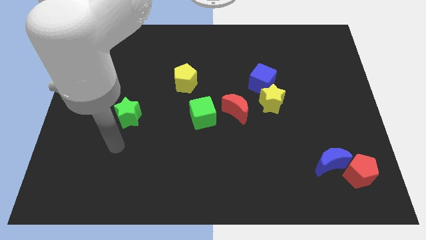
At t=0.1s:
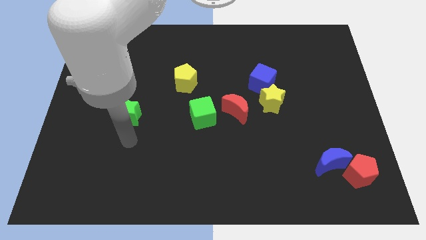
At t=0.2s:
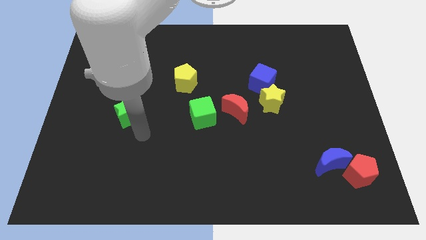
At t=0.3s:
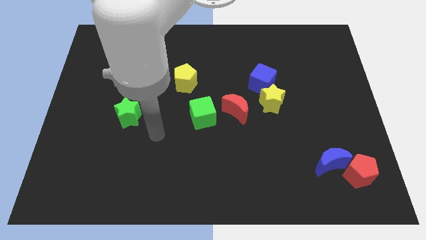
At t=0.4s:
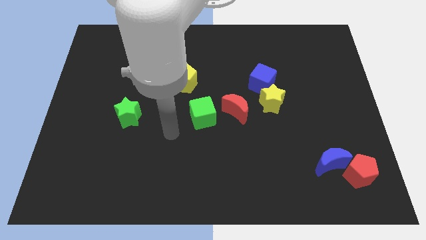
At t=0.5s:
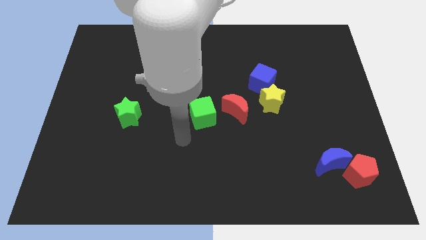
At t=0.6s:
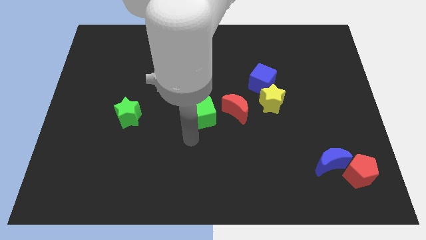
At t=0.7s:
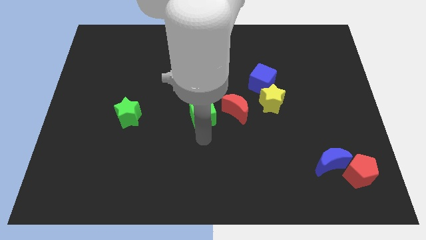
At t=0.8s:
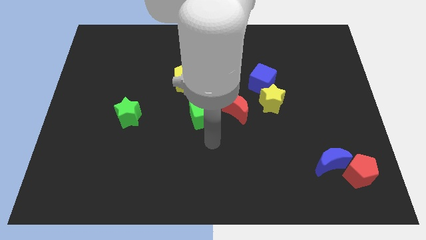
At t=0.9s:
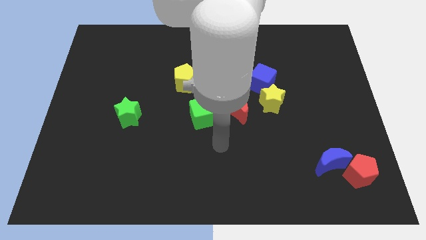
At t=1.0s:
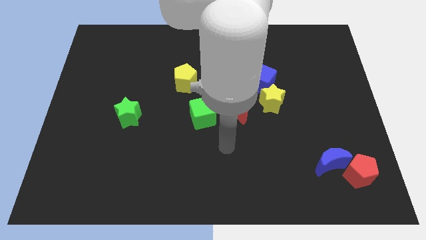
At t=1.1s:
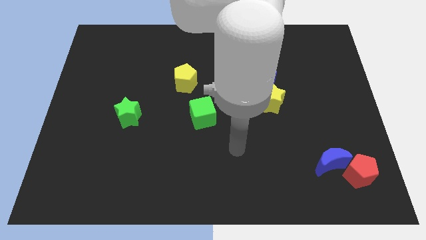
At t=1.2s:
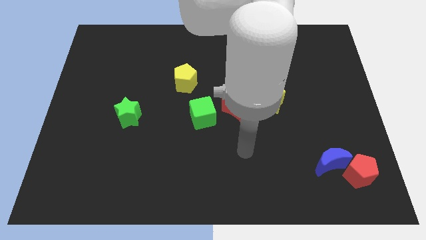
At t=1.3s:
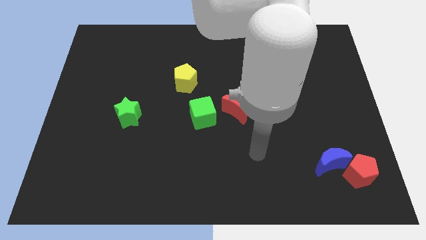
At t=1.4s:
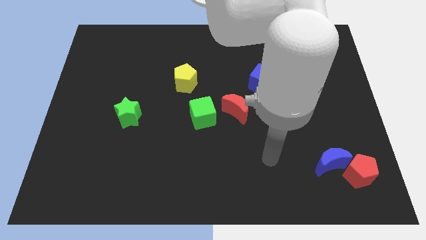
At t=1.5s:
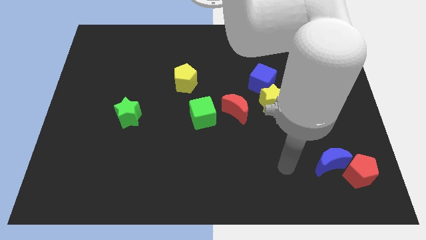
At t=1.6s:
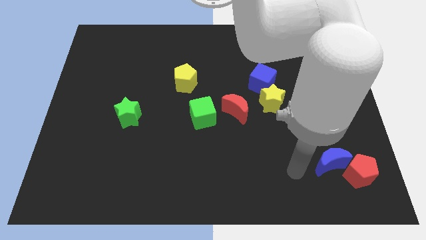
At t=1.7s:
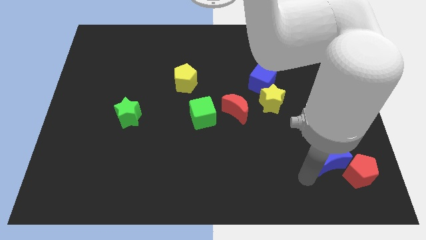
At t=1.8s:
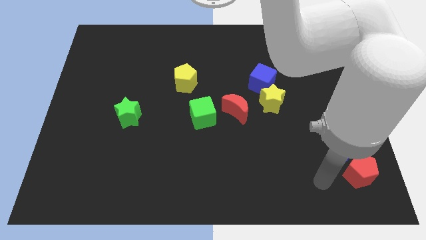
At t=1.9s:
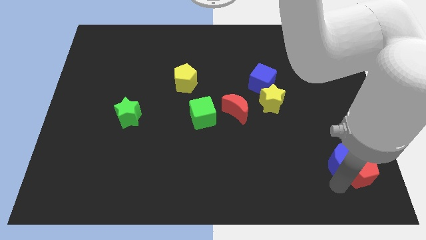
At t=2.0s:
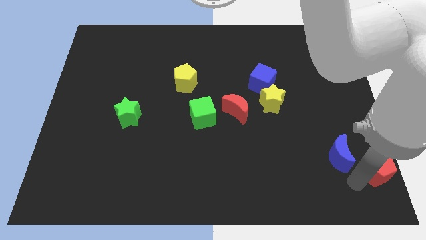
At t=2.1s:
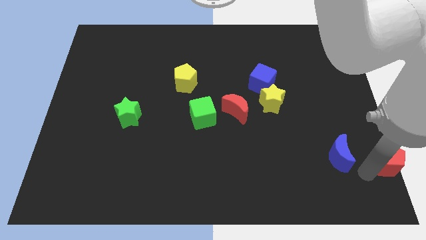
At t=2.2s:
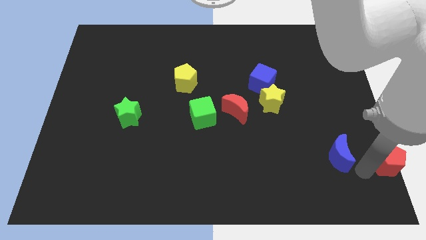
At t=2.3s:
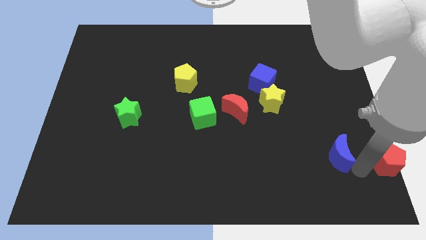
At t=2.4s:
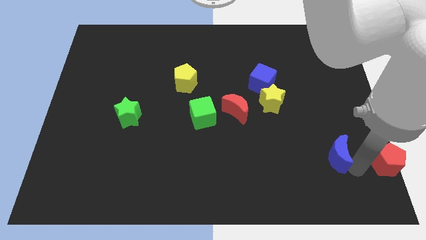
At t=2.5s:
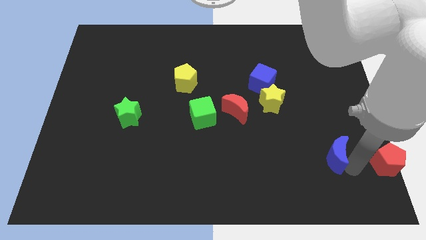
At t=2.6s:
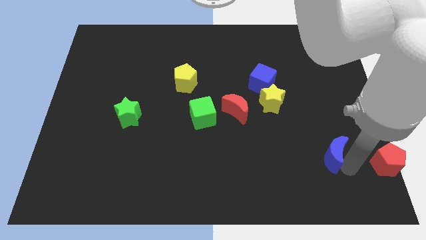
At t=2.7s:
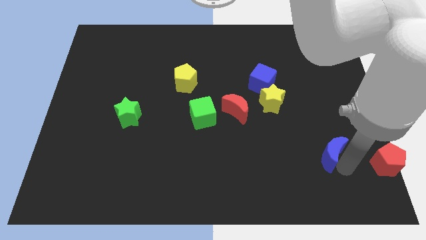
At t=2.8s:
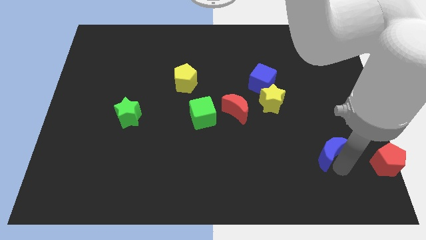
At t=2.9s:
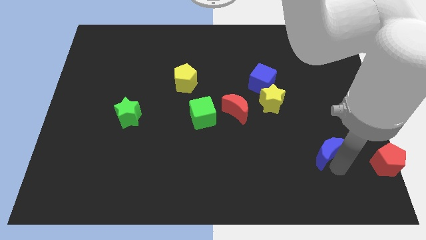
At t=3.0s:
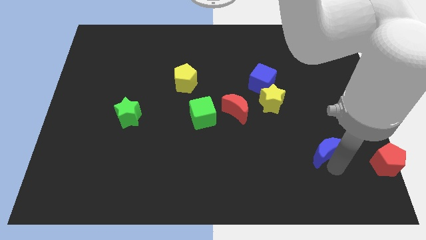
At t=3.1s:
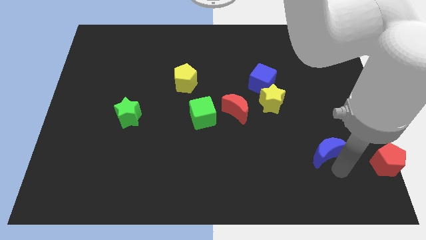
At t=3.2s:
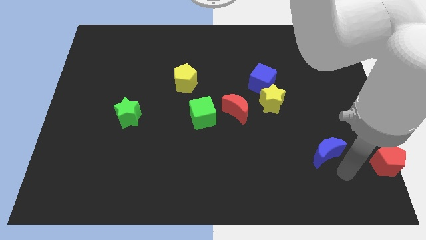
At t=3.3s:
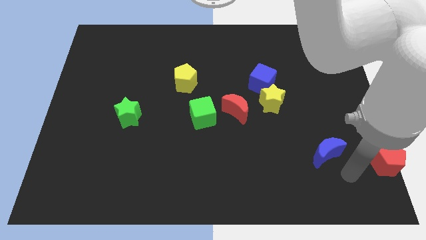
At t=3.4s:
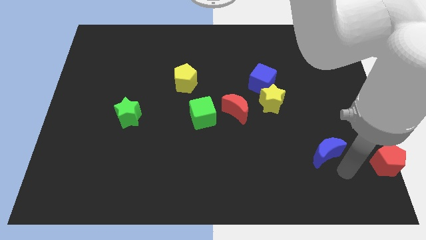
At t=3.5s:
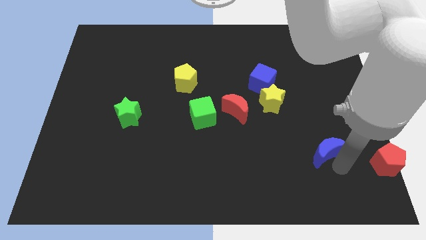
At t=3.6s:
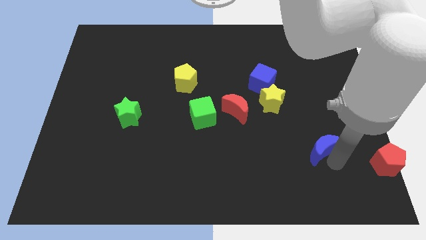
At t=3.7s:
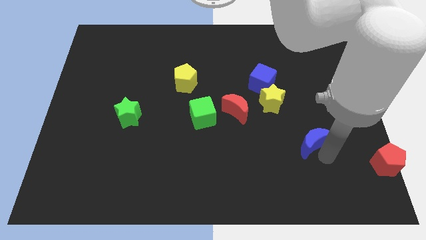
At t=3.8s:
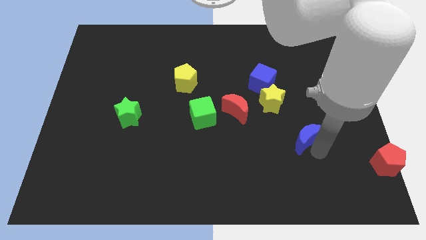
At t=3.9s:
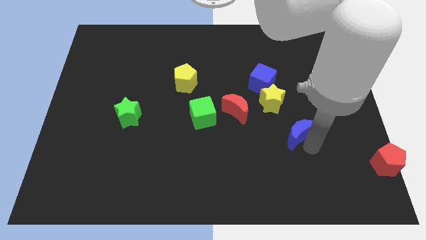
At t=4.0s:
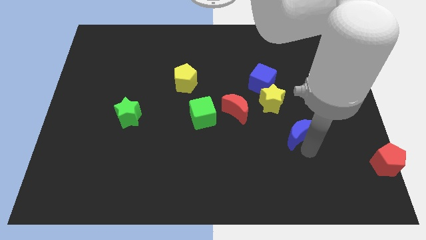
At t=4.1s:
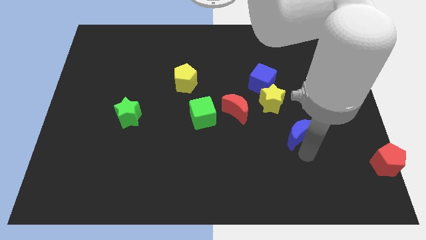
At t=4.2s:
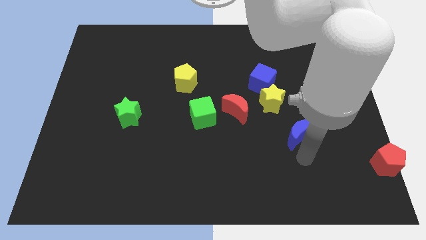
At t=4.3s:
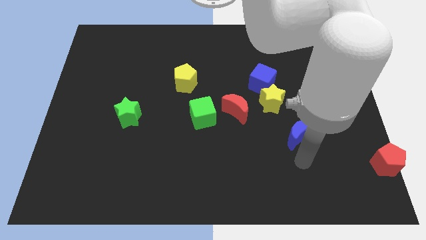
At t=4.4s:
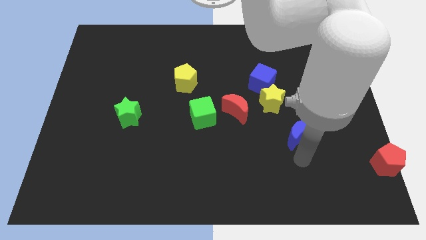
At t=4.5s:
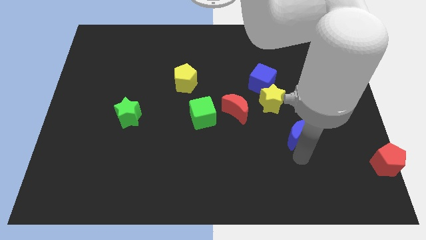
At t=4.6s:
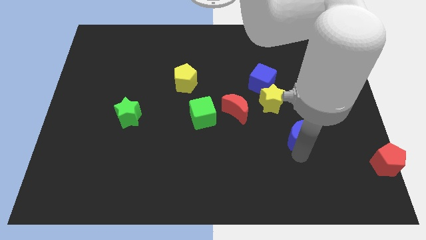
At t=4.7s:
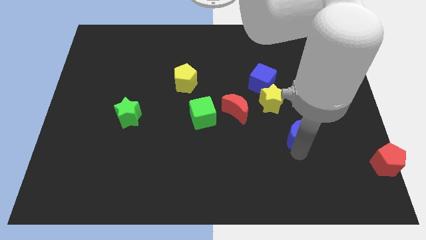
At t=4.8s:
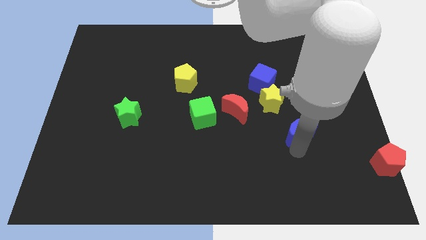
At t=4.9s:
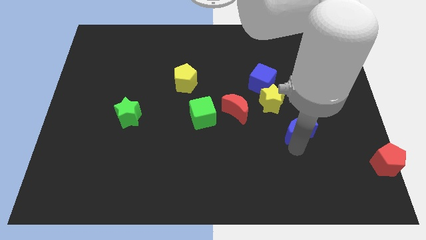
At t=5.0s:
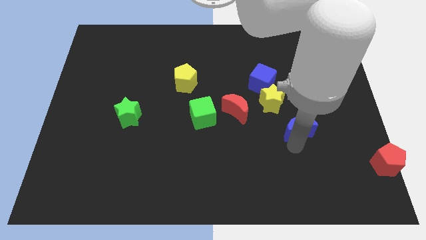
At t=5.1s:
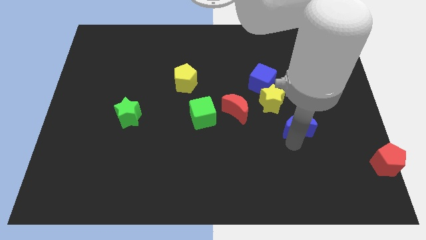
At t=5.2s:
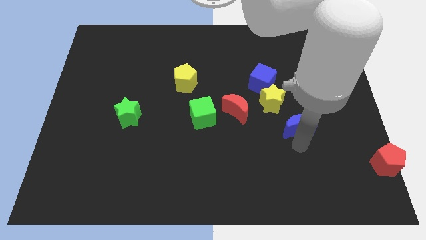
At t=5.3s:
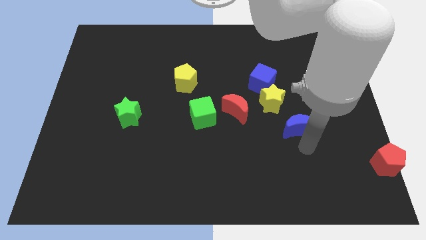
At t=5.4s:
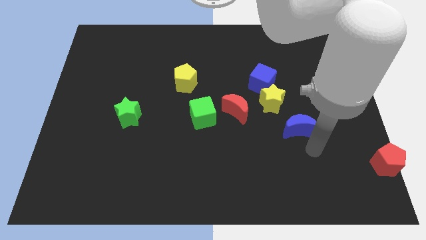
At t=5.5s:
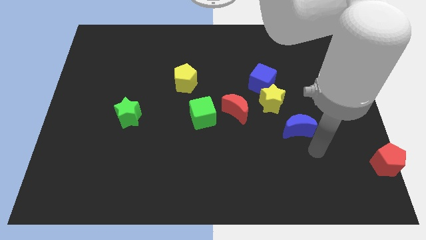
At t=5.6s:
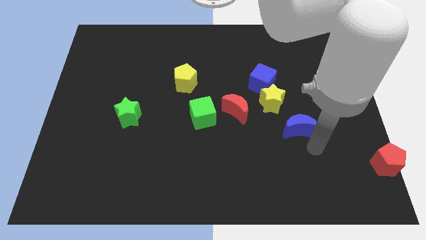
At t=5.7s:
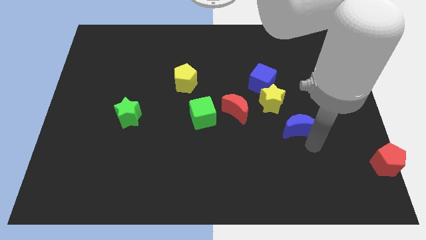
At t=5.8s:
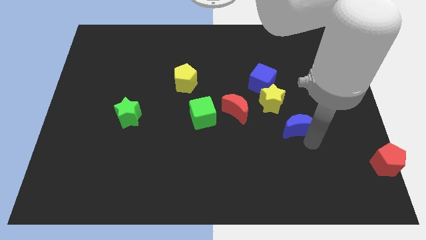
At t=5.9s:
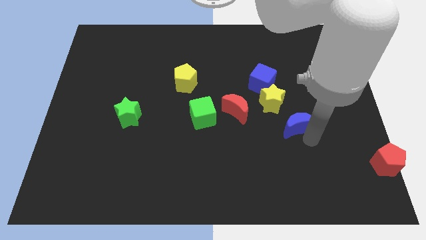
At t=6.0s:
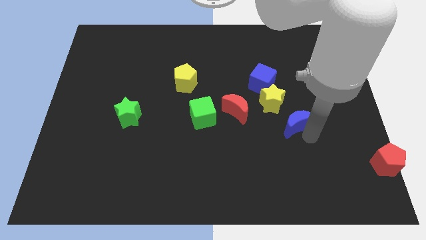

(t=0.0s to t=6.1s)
move the blue moon just right of the red moon

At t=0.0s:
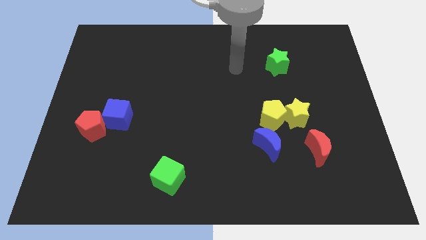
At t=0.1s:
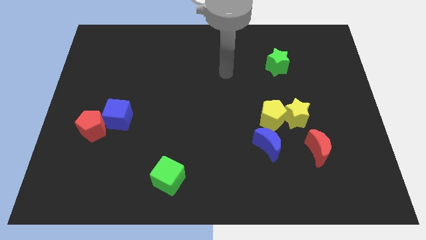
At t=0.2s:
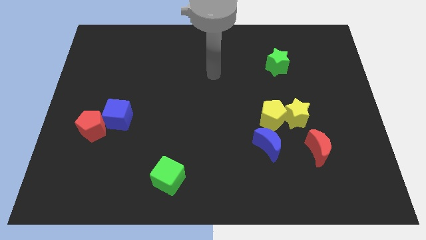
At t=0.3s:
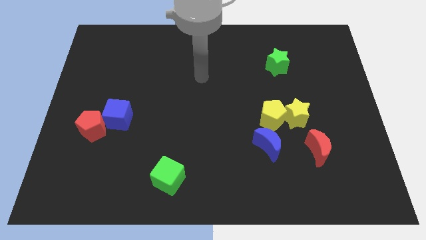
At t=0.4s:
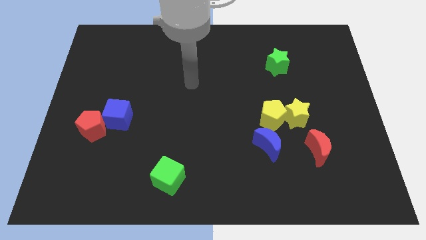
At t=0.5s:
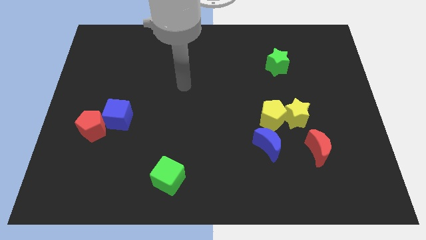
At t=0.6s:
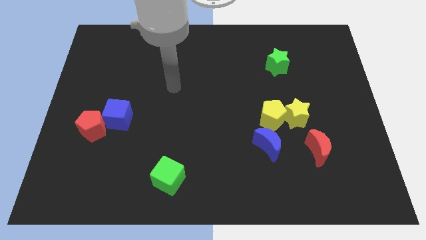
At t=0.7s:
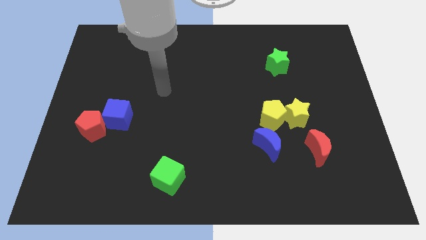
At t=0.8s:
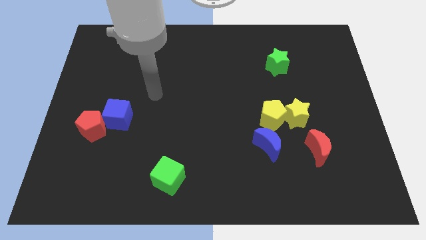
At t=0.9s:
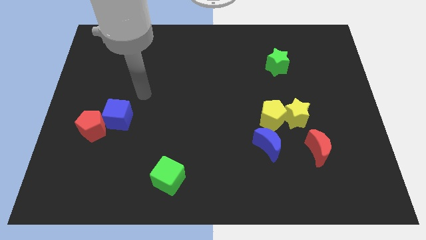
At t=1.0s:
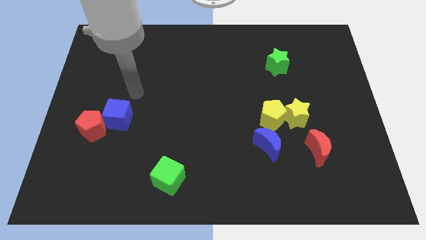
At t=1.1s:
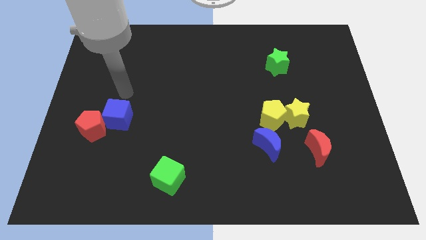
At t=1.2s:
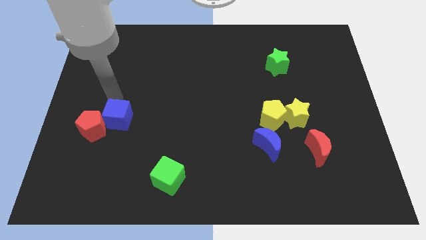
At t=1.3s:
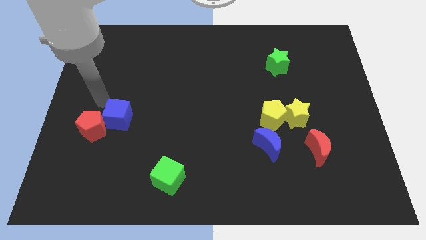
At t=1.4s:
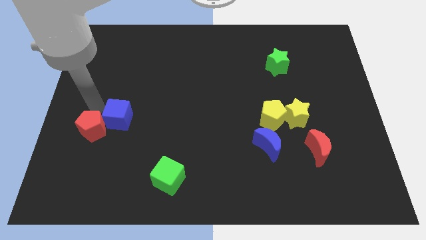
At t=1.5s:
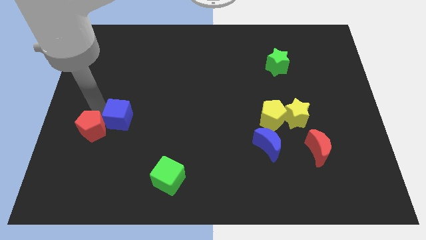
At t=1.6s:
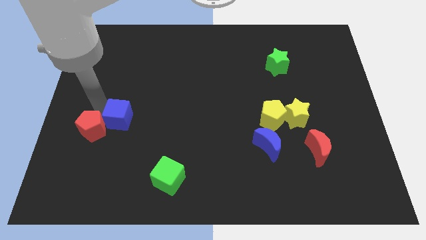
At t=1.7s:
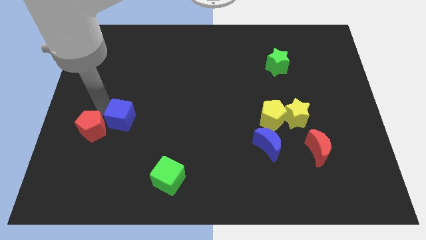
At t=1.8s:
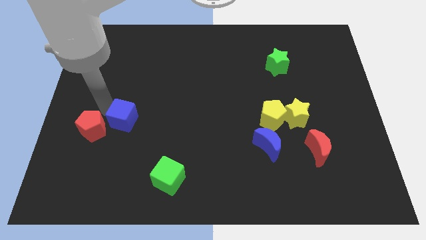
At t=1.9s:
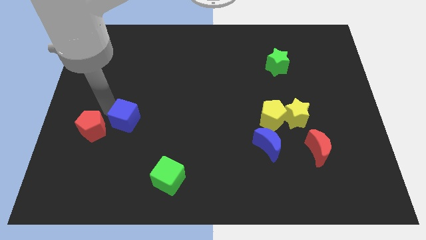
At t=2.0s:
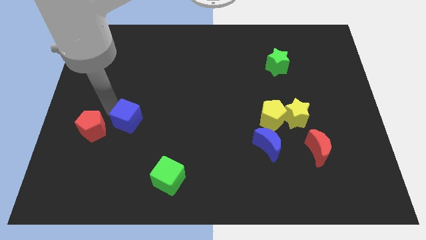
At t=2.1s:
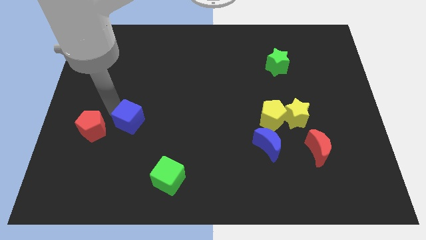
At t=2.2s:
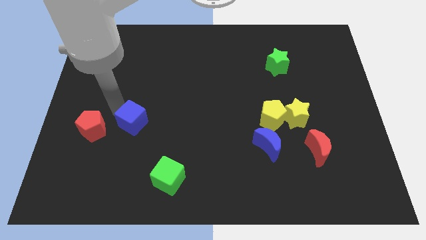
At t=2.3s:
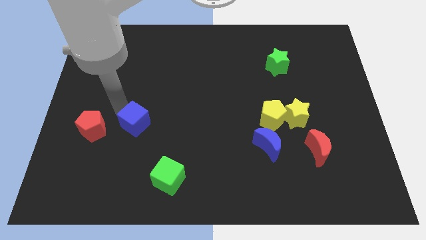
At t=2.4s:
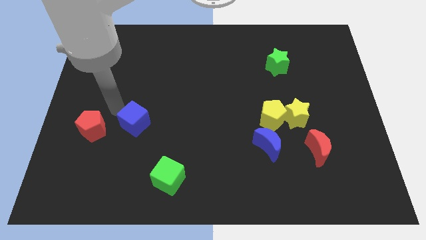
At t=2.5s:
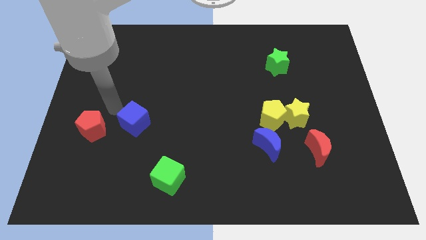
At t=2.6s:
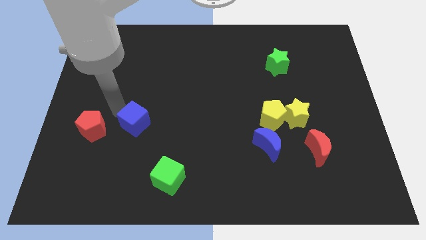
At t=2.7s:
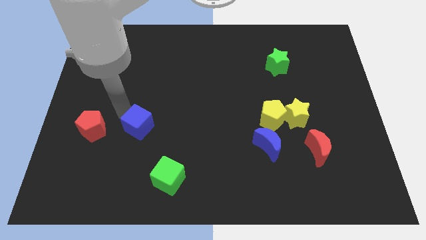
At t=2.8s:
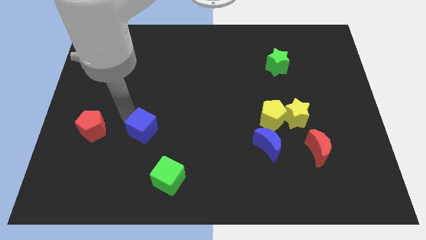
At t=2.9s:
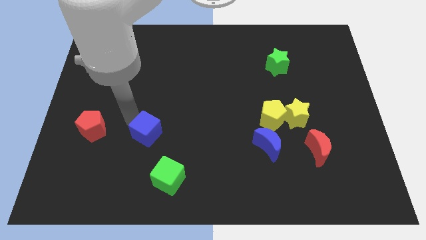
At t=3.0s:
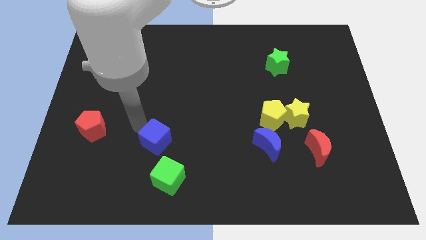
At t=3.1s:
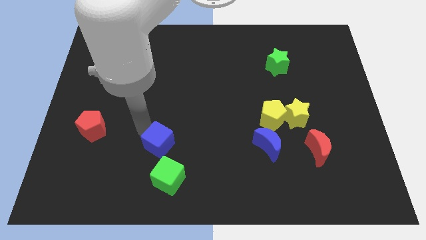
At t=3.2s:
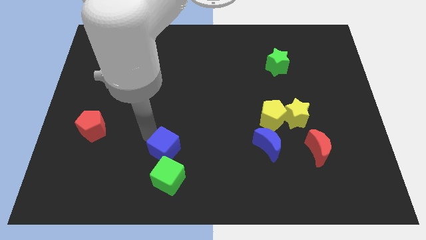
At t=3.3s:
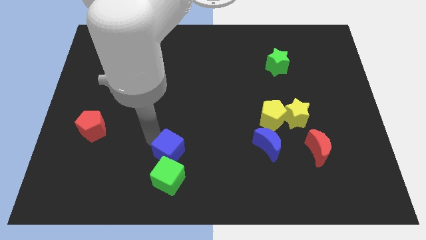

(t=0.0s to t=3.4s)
push the blue cube to the top right side of the green cube
